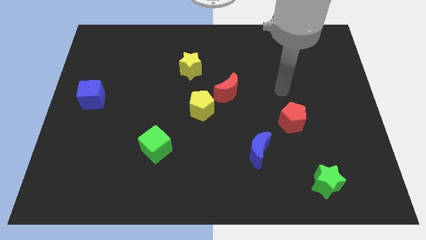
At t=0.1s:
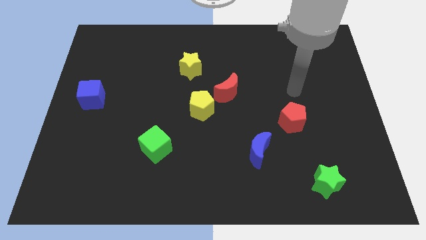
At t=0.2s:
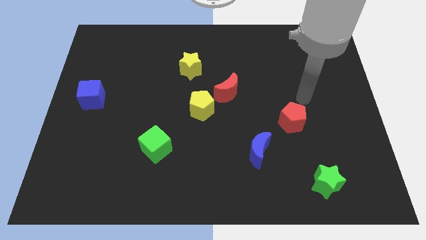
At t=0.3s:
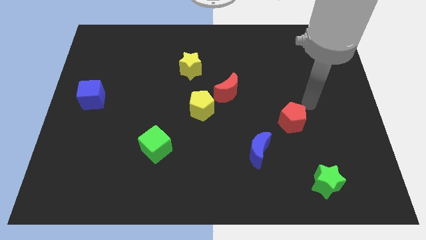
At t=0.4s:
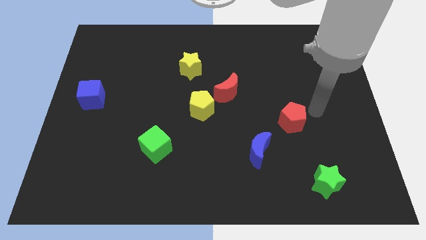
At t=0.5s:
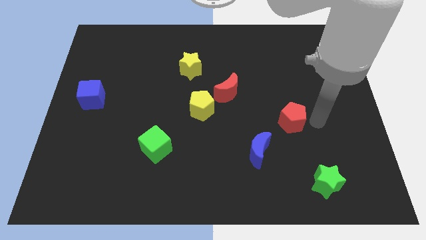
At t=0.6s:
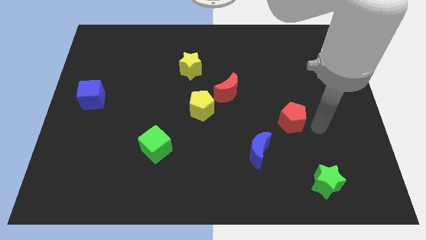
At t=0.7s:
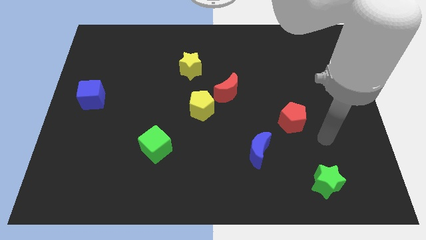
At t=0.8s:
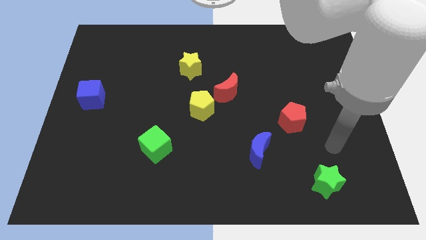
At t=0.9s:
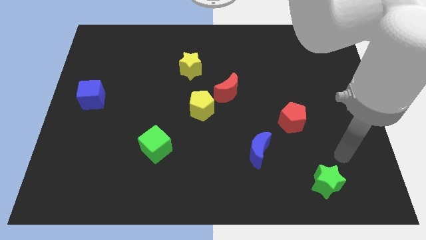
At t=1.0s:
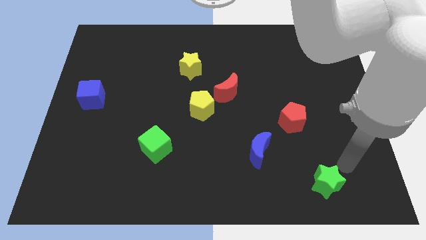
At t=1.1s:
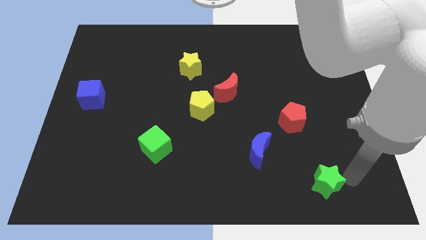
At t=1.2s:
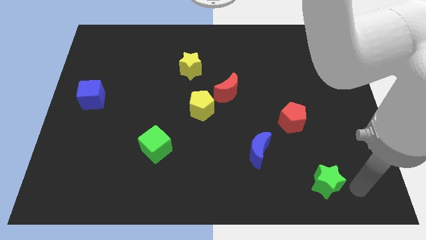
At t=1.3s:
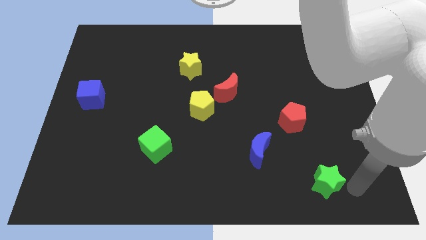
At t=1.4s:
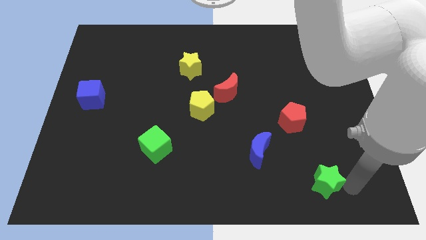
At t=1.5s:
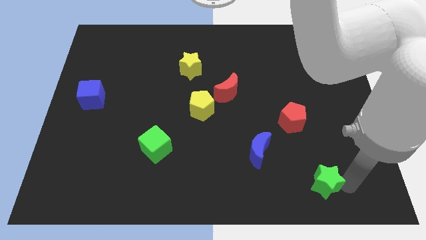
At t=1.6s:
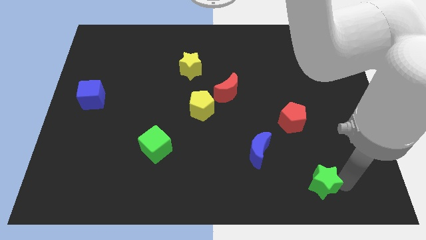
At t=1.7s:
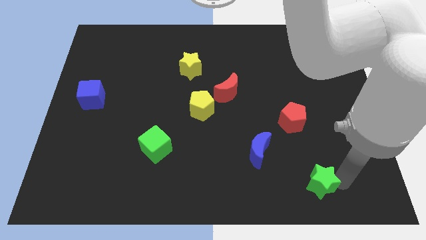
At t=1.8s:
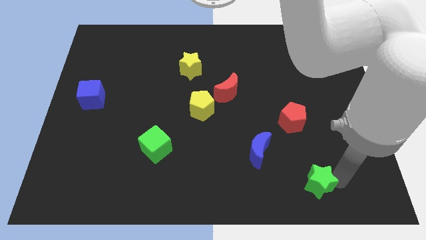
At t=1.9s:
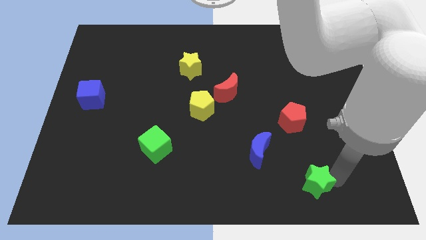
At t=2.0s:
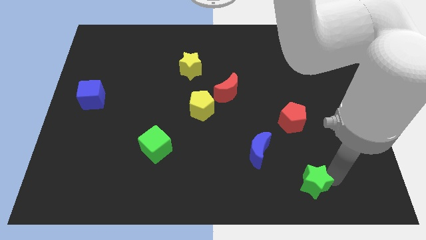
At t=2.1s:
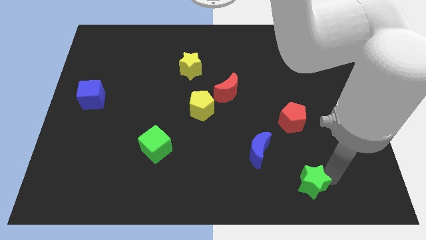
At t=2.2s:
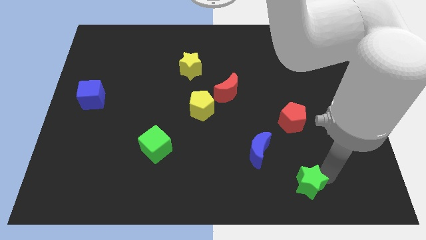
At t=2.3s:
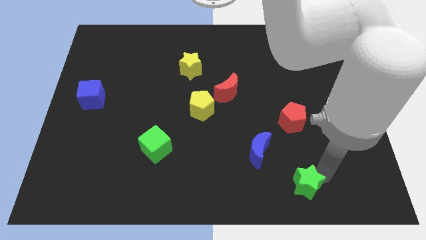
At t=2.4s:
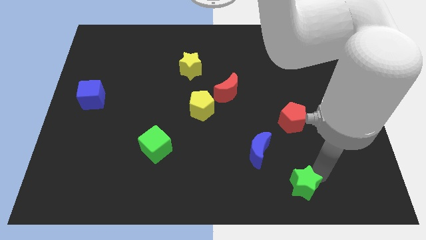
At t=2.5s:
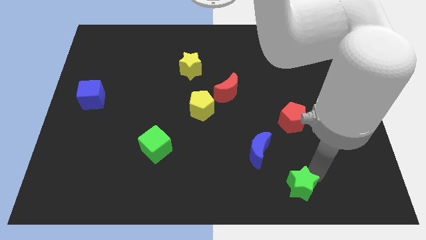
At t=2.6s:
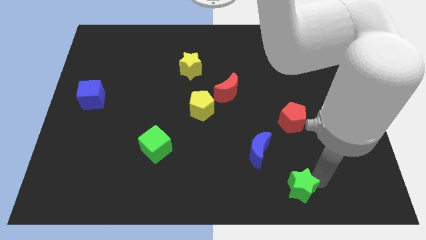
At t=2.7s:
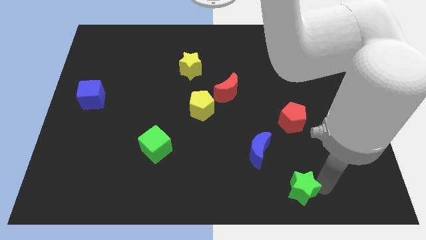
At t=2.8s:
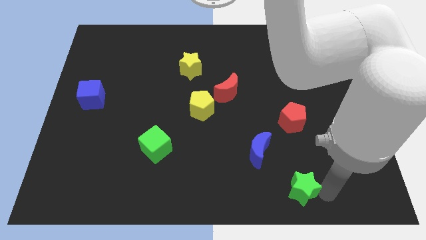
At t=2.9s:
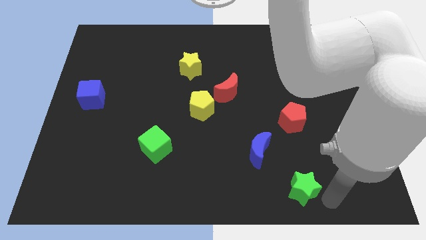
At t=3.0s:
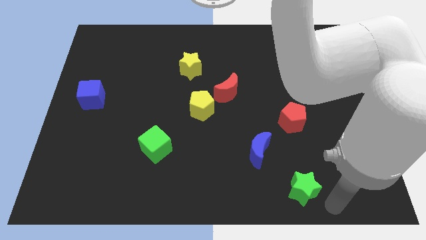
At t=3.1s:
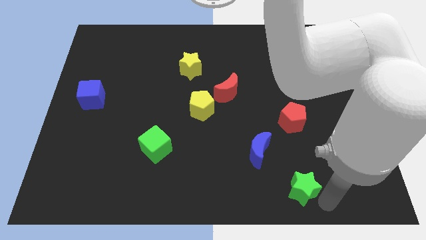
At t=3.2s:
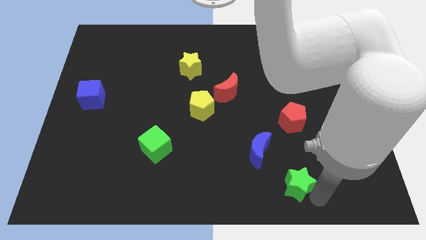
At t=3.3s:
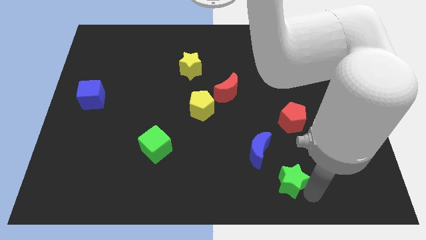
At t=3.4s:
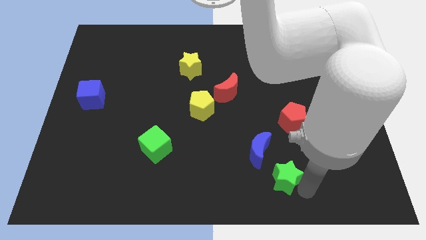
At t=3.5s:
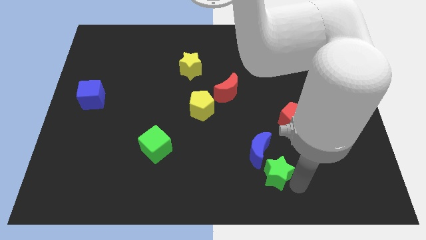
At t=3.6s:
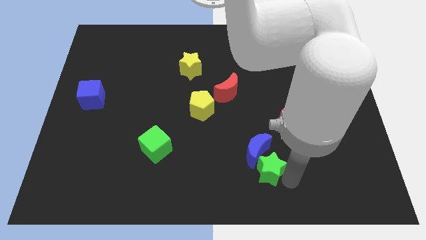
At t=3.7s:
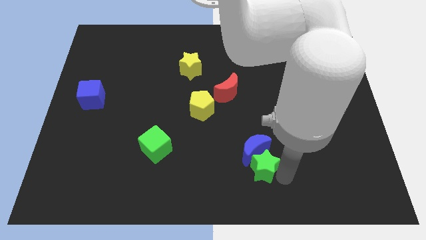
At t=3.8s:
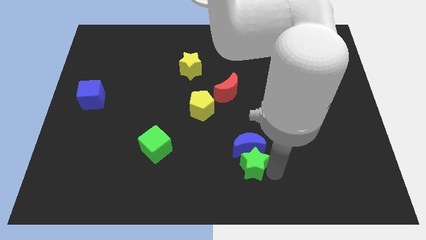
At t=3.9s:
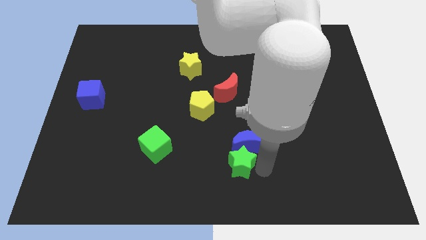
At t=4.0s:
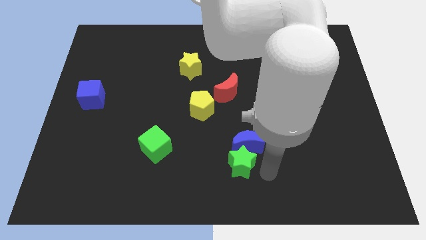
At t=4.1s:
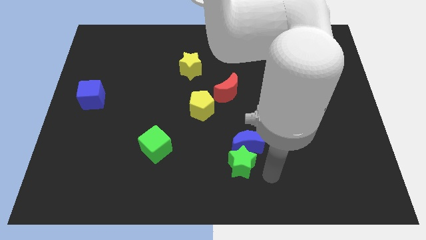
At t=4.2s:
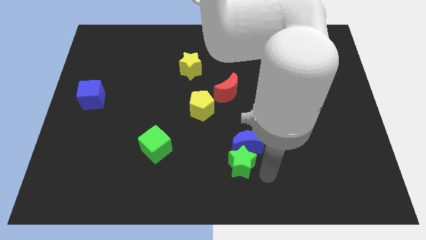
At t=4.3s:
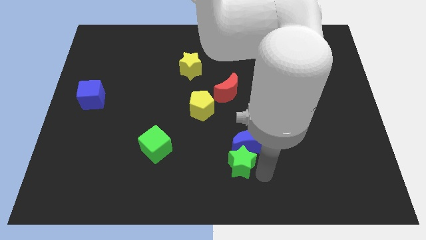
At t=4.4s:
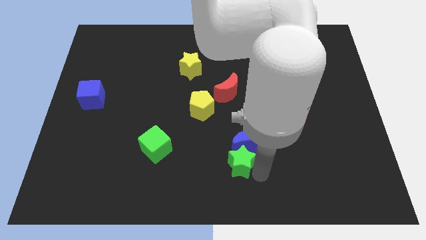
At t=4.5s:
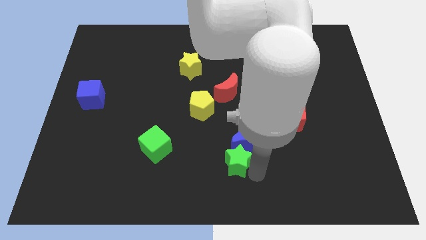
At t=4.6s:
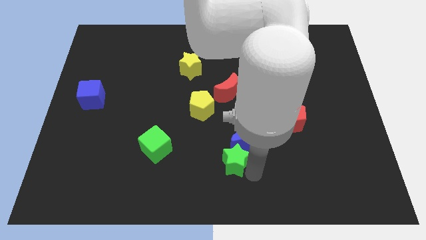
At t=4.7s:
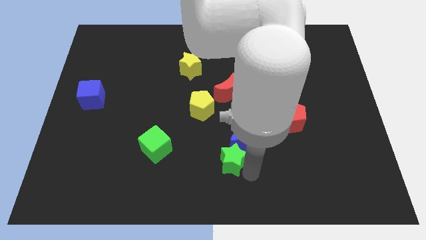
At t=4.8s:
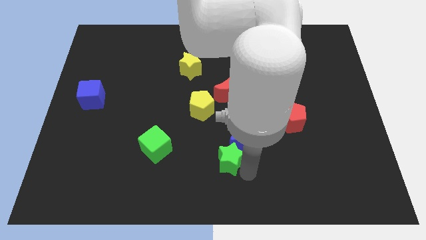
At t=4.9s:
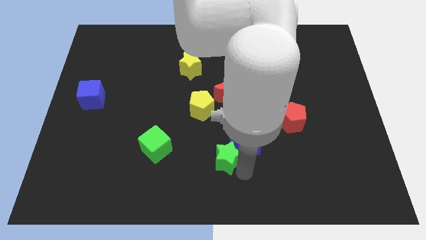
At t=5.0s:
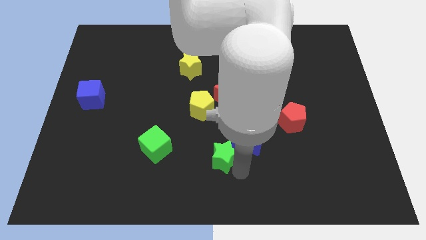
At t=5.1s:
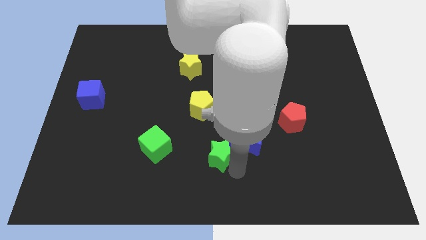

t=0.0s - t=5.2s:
put the green star below the yellow pentagon

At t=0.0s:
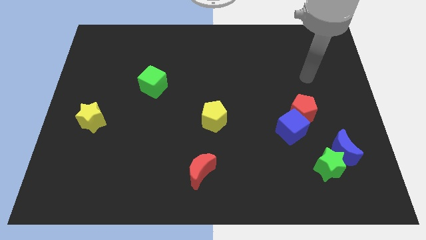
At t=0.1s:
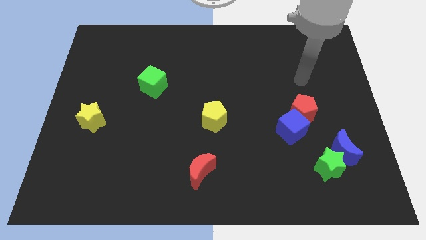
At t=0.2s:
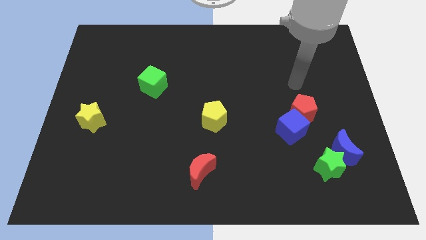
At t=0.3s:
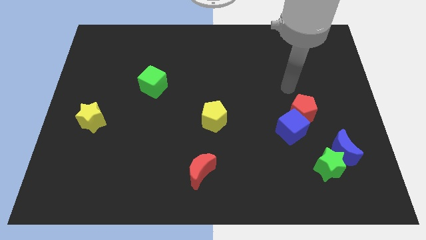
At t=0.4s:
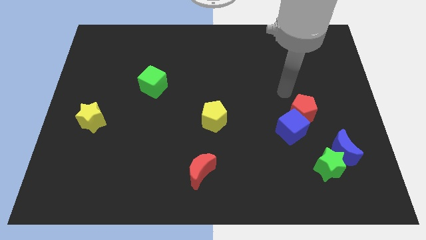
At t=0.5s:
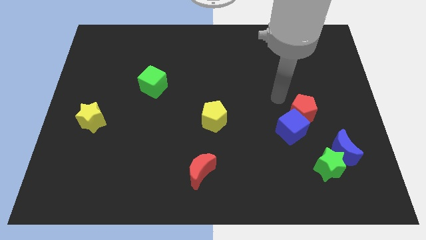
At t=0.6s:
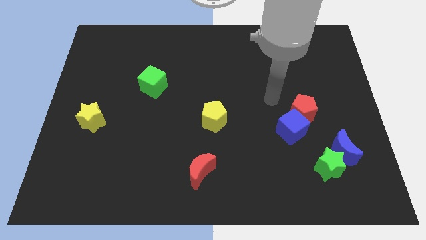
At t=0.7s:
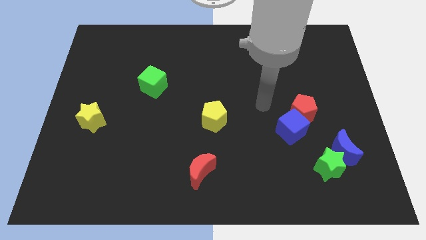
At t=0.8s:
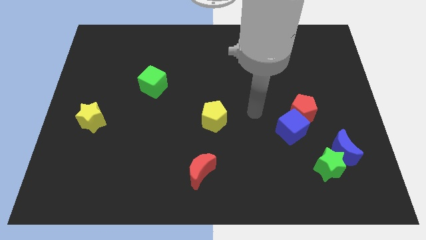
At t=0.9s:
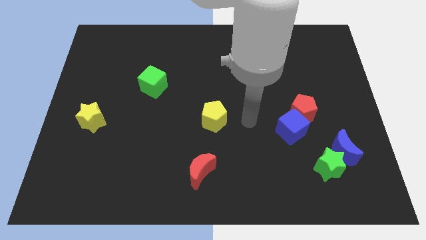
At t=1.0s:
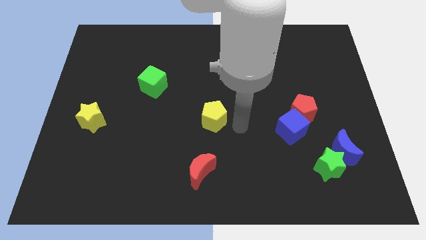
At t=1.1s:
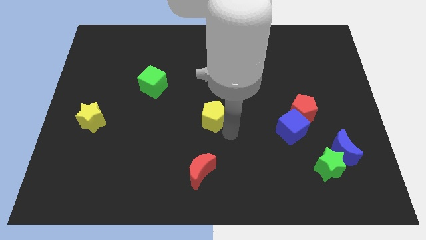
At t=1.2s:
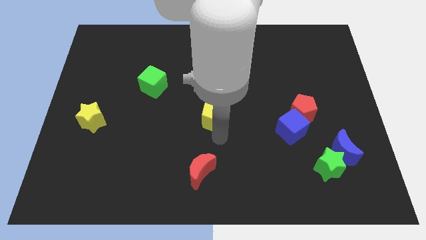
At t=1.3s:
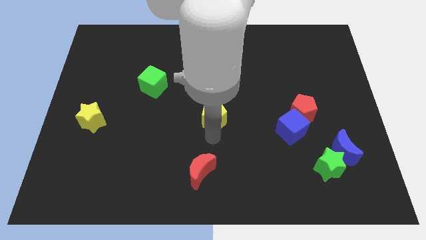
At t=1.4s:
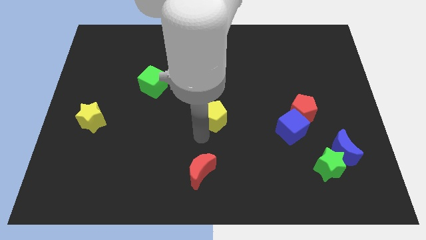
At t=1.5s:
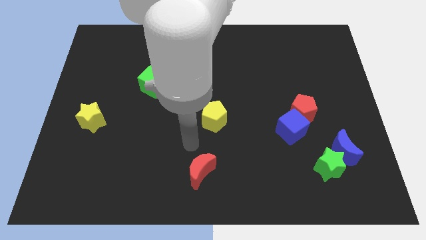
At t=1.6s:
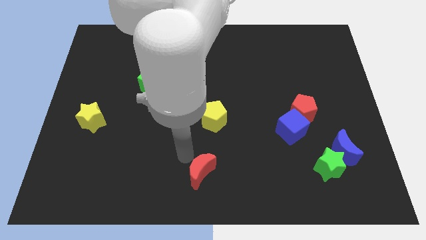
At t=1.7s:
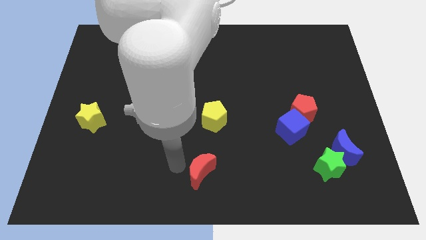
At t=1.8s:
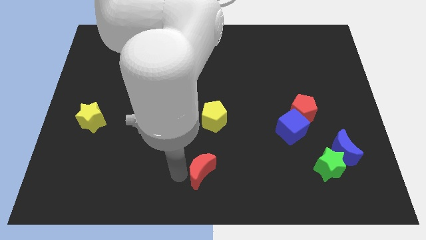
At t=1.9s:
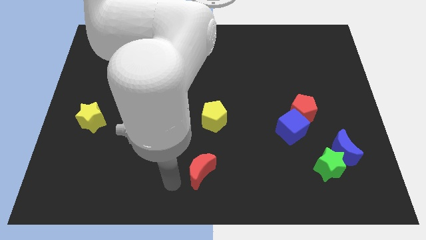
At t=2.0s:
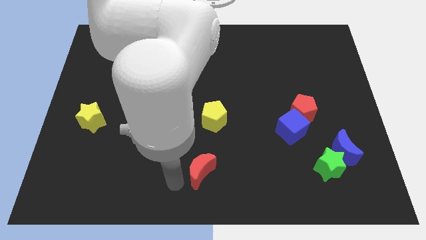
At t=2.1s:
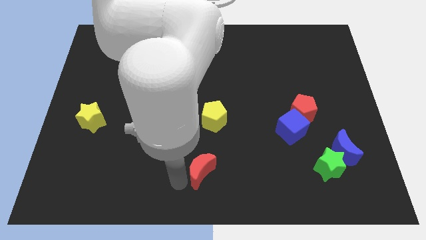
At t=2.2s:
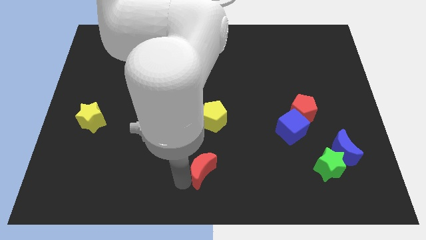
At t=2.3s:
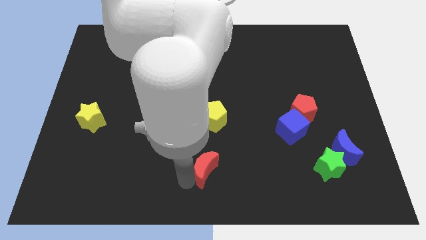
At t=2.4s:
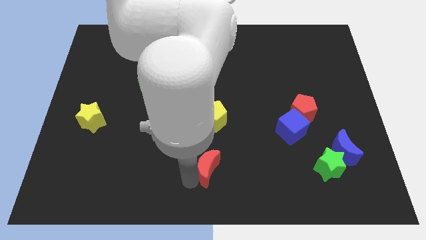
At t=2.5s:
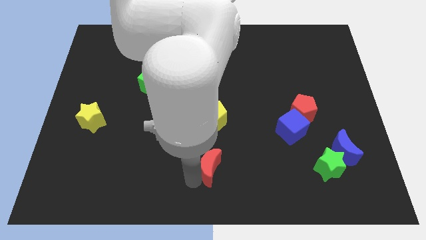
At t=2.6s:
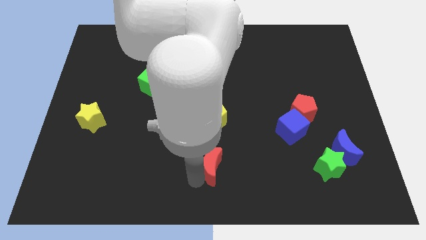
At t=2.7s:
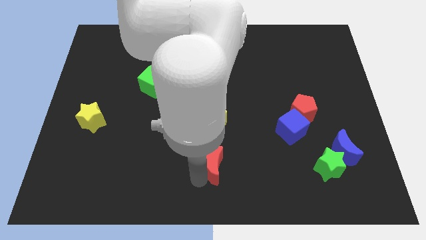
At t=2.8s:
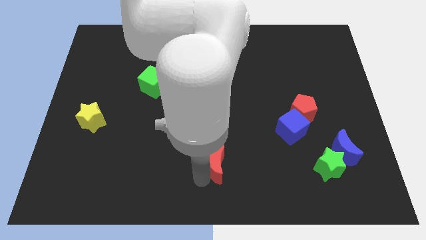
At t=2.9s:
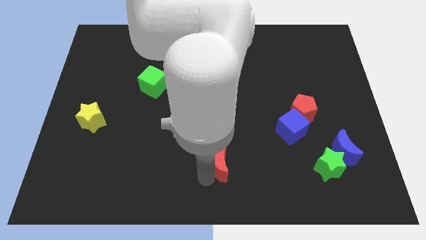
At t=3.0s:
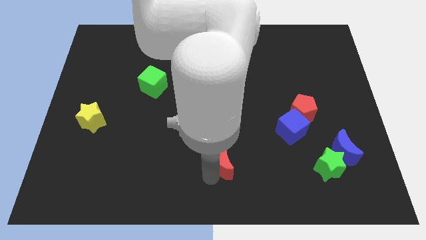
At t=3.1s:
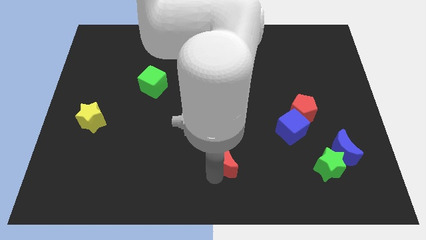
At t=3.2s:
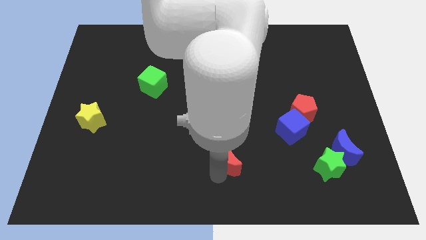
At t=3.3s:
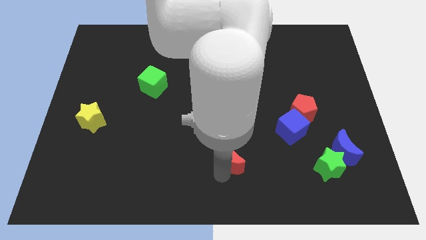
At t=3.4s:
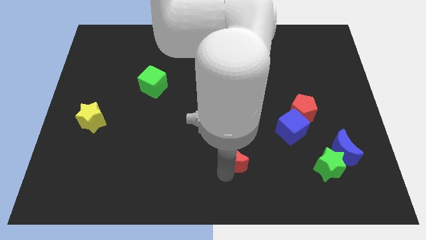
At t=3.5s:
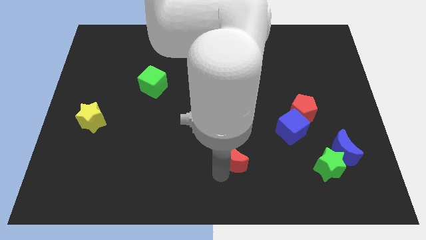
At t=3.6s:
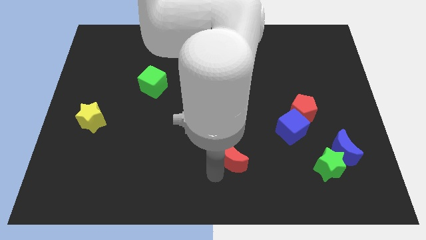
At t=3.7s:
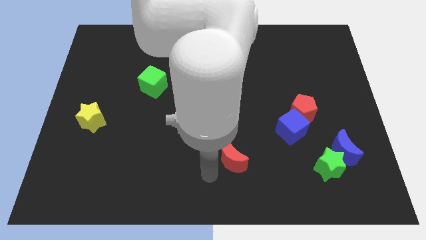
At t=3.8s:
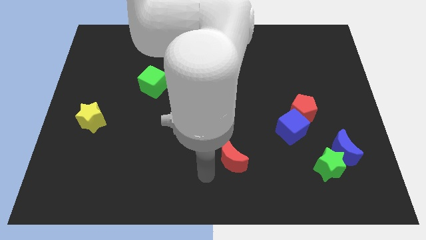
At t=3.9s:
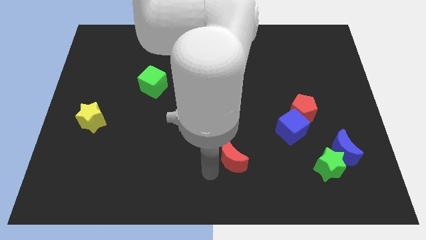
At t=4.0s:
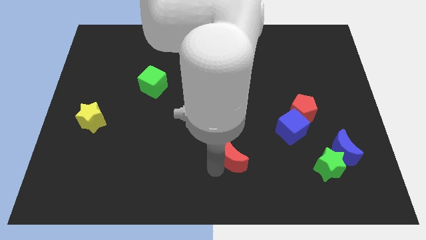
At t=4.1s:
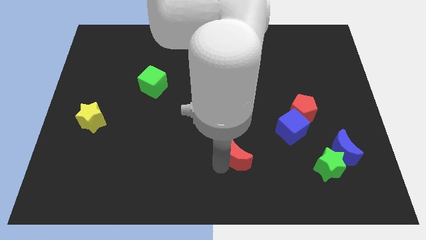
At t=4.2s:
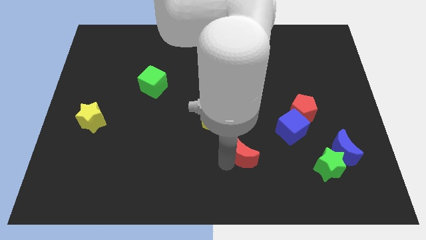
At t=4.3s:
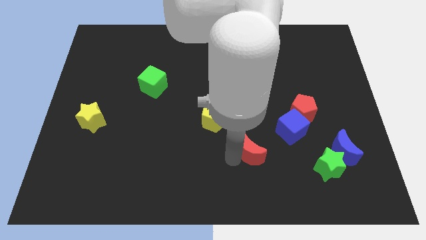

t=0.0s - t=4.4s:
put the red moon to the bottom left side of the blue cube
